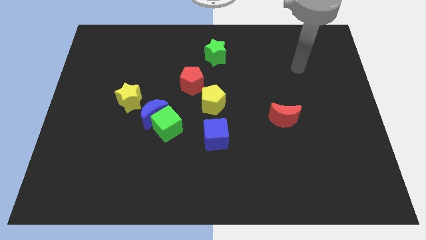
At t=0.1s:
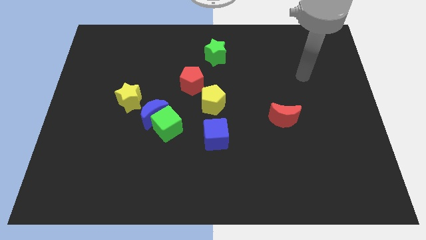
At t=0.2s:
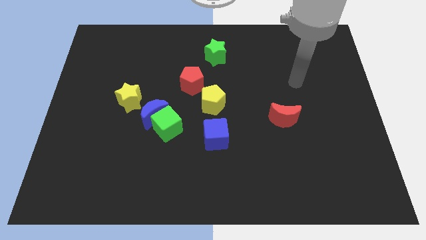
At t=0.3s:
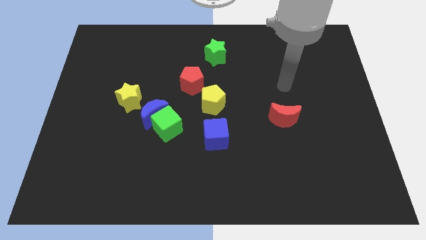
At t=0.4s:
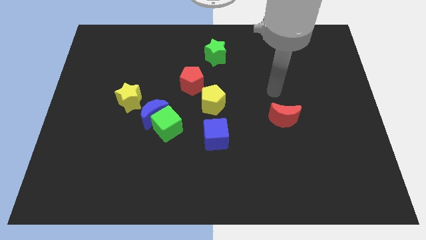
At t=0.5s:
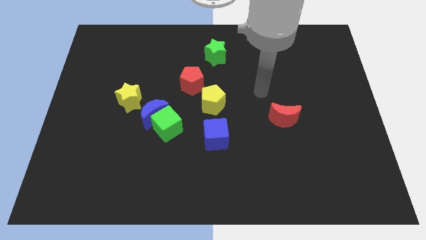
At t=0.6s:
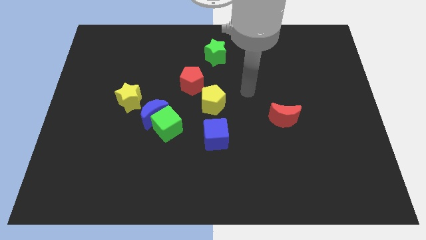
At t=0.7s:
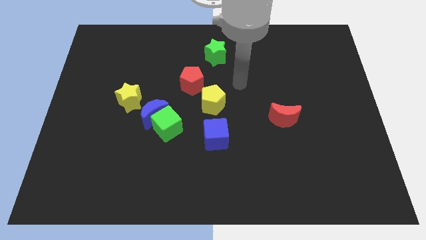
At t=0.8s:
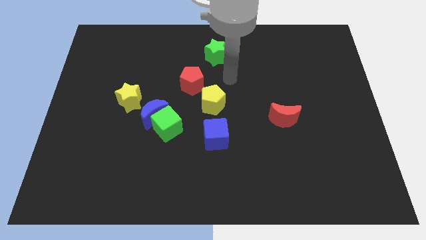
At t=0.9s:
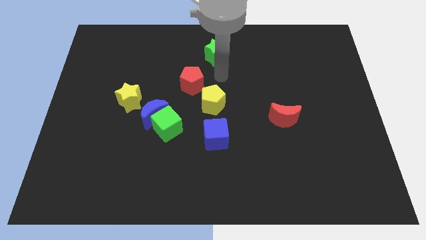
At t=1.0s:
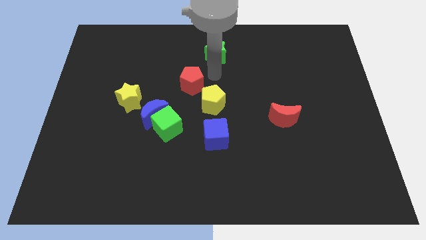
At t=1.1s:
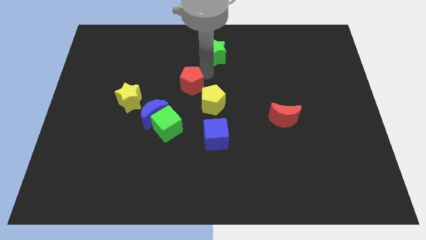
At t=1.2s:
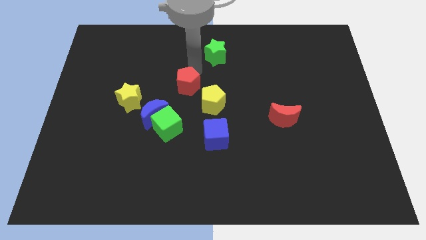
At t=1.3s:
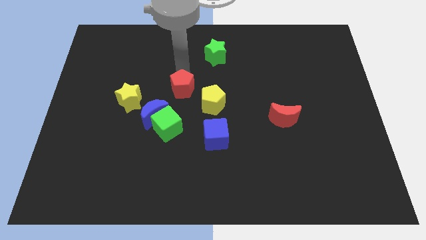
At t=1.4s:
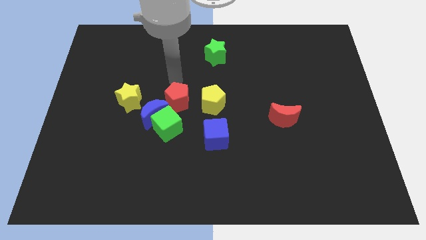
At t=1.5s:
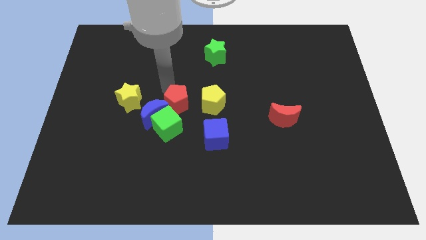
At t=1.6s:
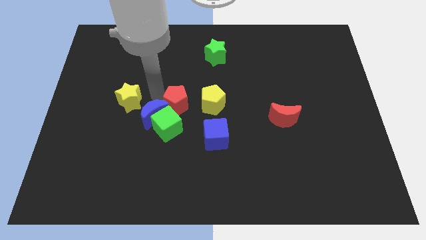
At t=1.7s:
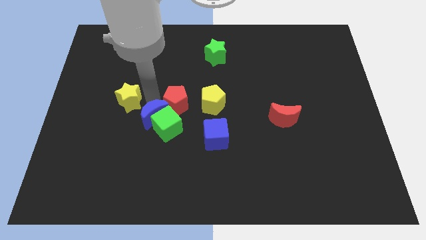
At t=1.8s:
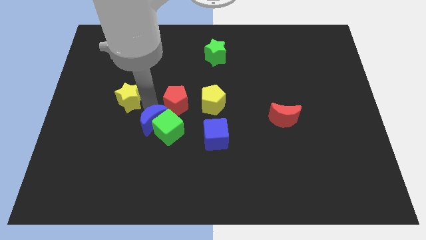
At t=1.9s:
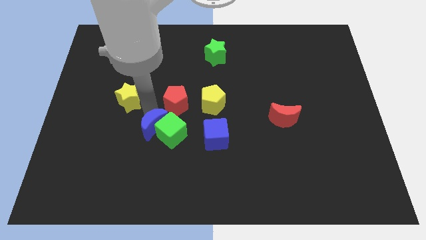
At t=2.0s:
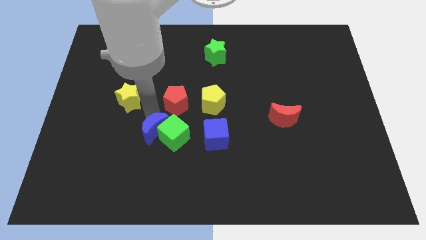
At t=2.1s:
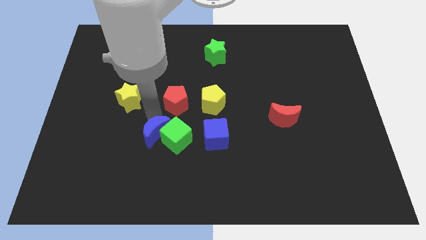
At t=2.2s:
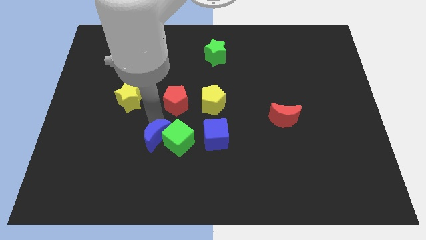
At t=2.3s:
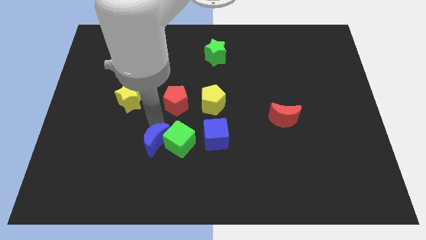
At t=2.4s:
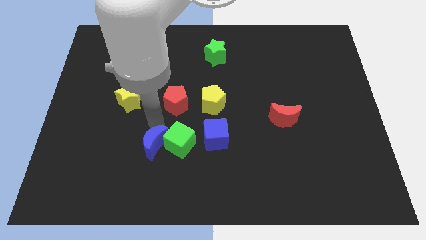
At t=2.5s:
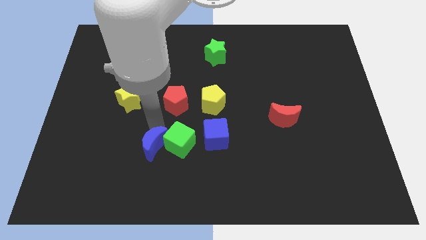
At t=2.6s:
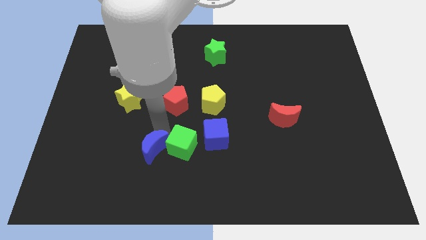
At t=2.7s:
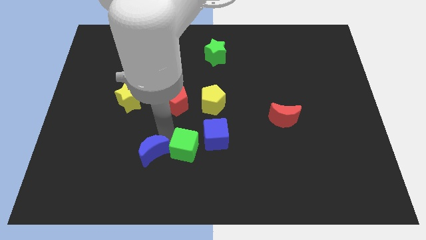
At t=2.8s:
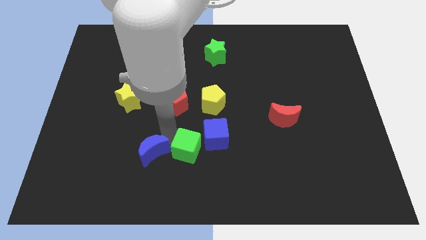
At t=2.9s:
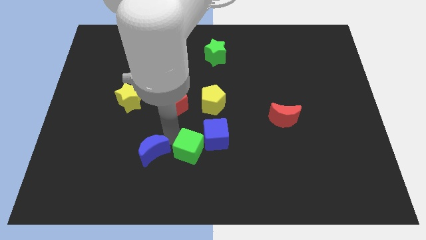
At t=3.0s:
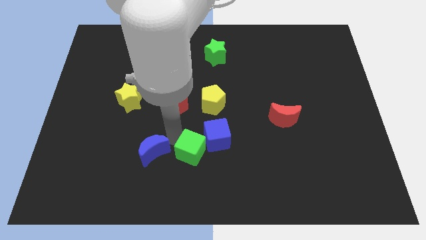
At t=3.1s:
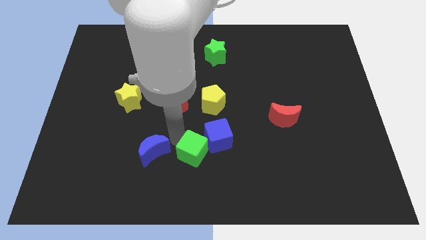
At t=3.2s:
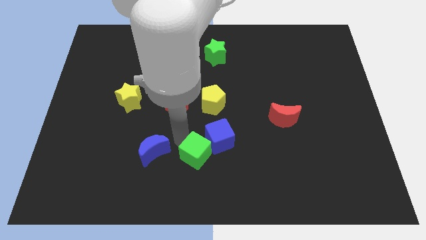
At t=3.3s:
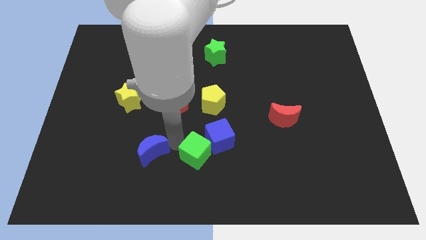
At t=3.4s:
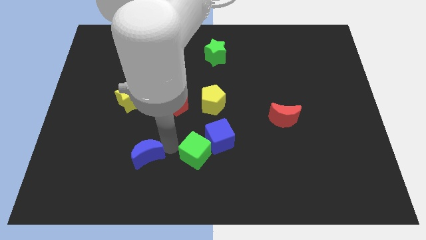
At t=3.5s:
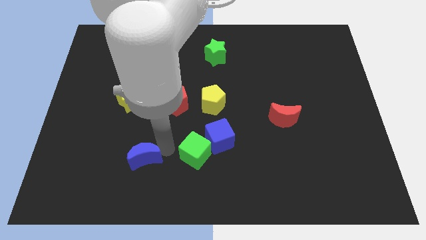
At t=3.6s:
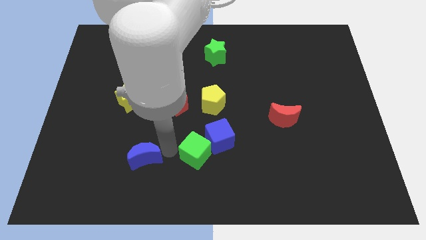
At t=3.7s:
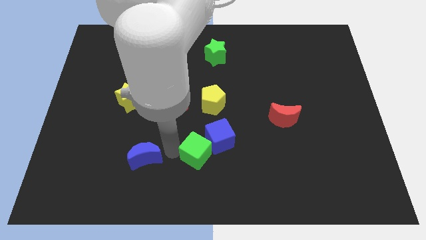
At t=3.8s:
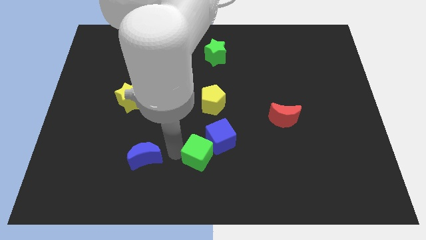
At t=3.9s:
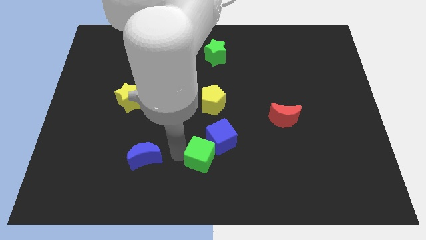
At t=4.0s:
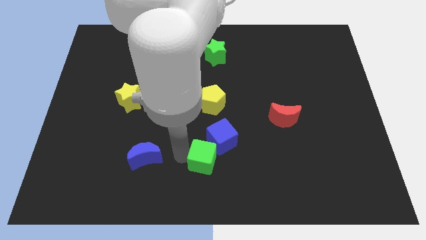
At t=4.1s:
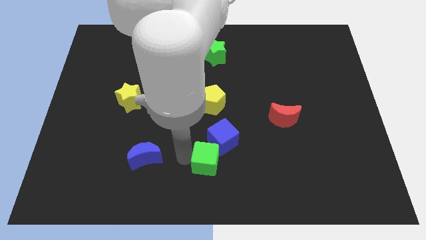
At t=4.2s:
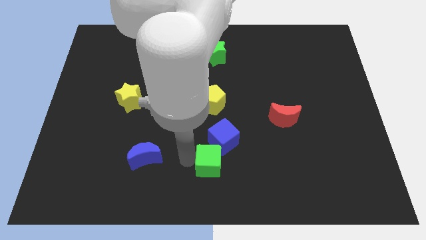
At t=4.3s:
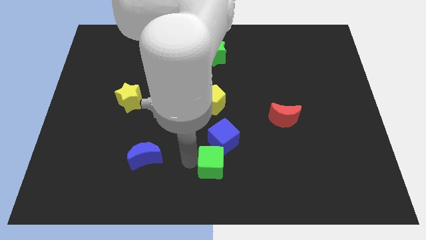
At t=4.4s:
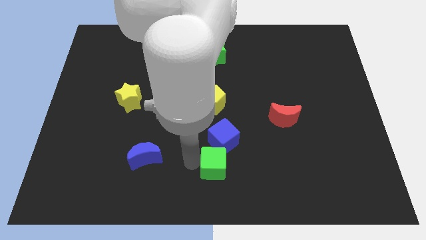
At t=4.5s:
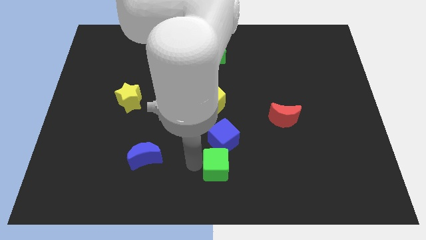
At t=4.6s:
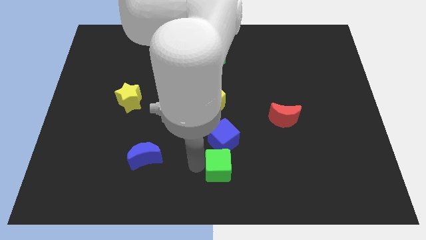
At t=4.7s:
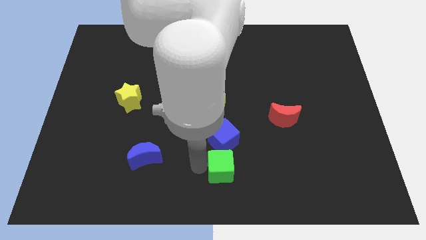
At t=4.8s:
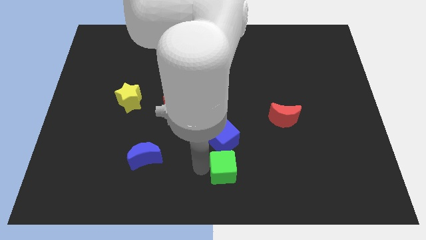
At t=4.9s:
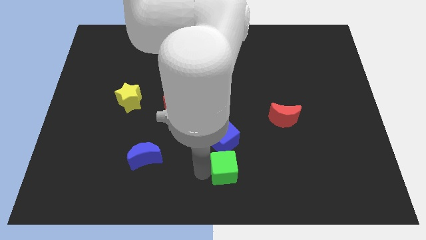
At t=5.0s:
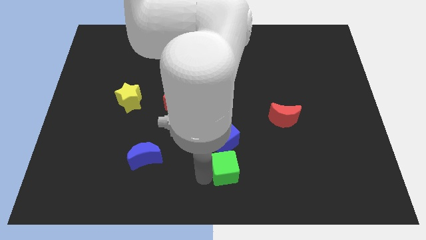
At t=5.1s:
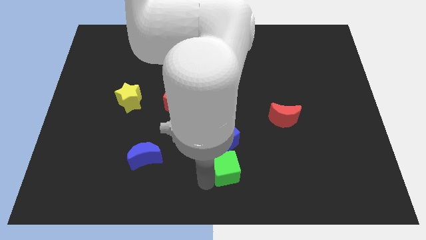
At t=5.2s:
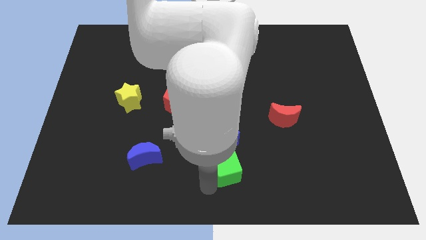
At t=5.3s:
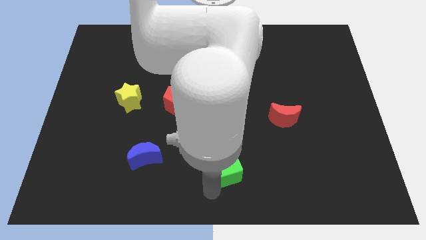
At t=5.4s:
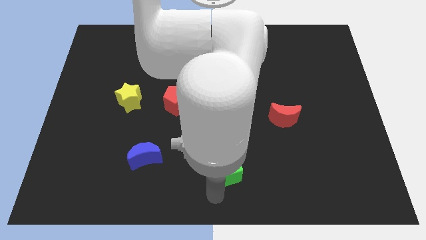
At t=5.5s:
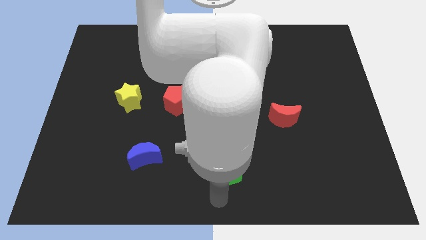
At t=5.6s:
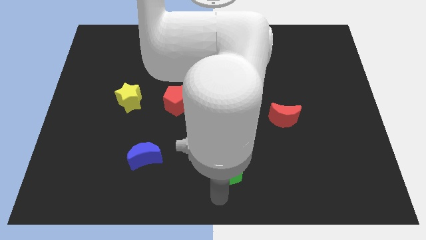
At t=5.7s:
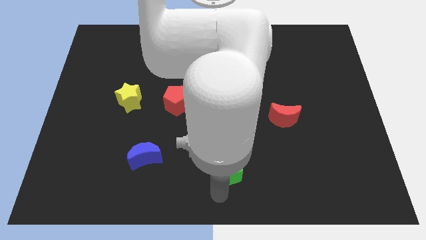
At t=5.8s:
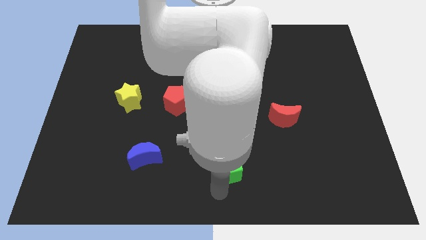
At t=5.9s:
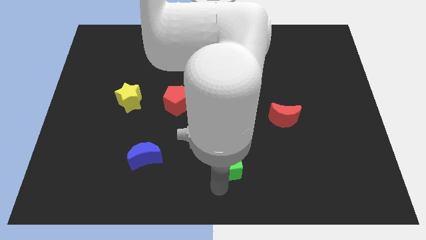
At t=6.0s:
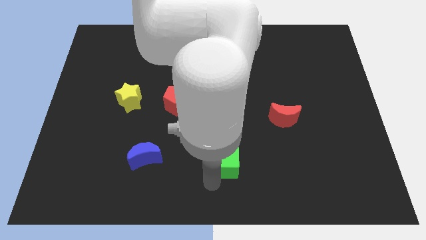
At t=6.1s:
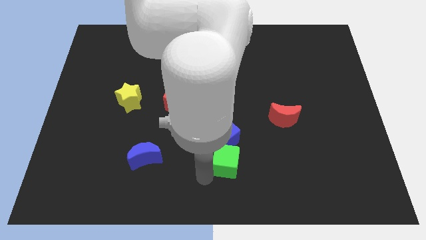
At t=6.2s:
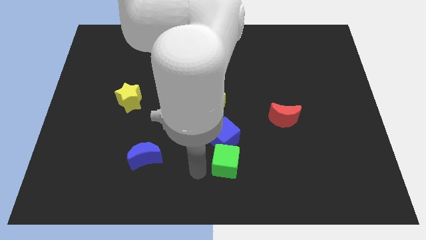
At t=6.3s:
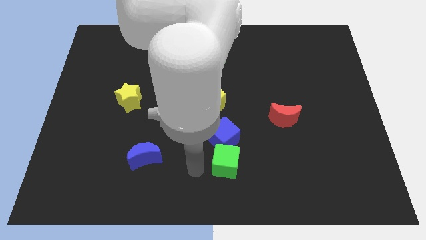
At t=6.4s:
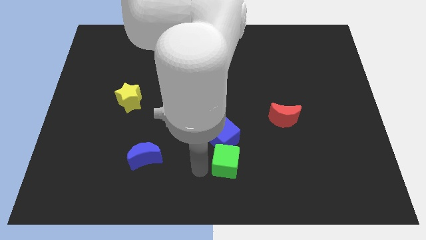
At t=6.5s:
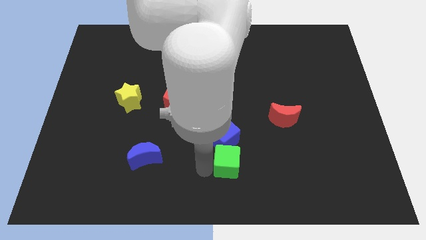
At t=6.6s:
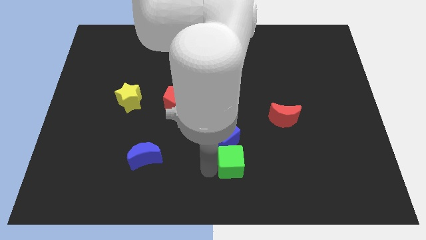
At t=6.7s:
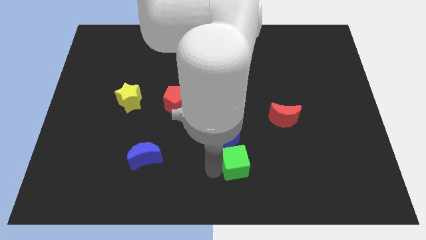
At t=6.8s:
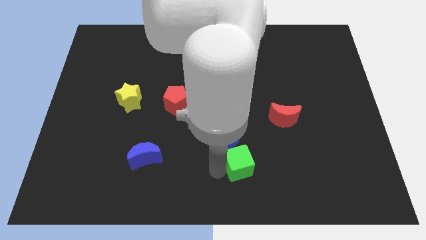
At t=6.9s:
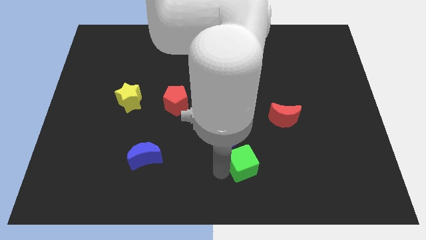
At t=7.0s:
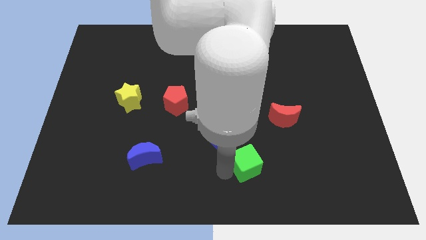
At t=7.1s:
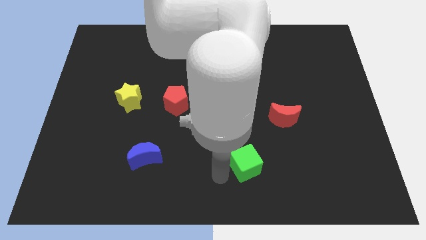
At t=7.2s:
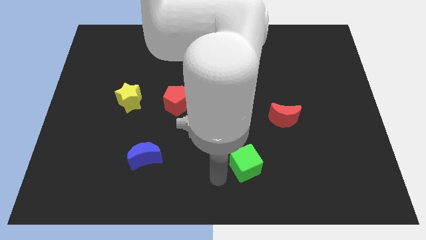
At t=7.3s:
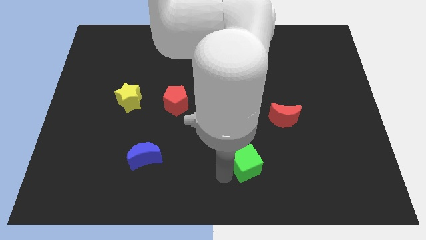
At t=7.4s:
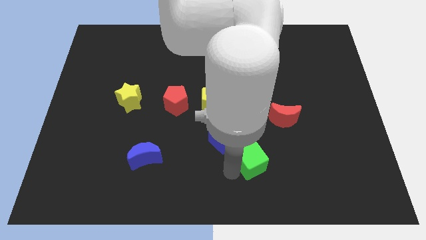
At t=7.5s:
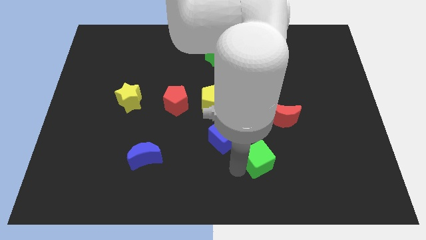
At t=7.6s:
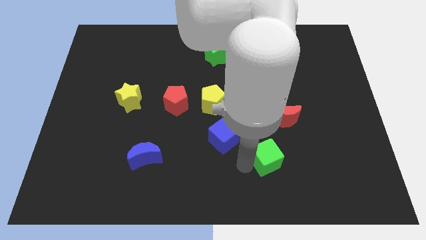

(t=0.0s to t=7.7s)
put the green cube to the bottom side of the red moon

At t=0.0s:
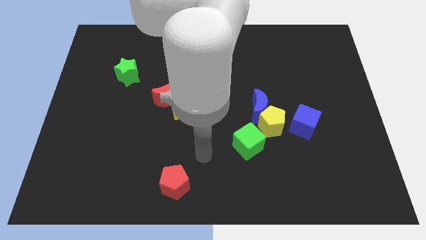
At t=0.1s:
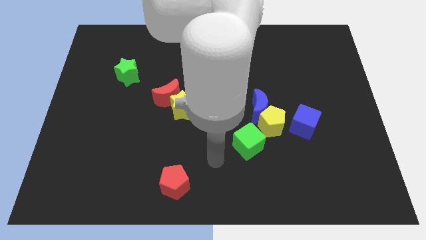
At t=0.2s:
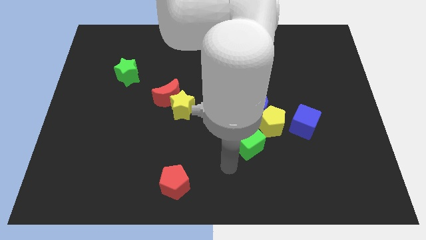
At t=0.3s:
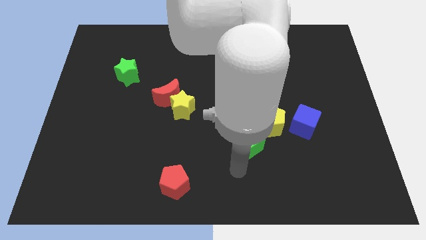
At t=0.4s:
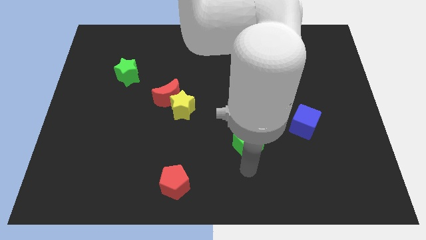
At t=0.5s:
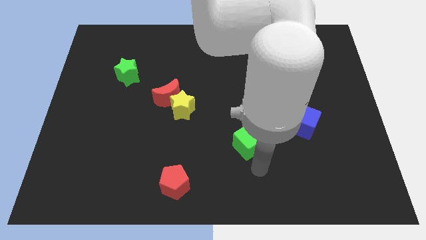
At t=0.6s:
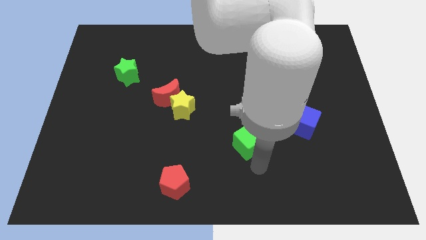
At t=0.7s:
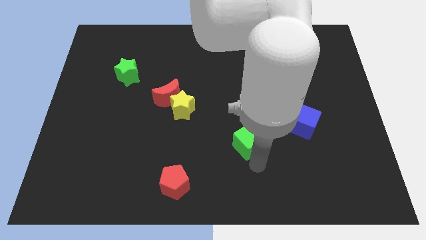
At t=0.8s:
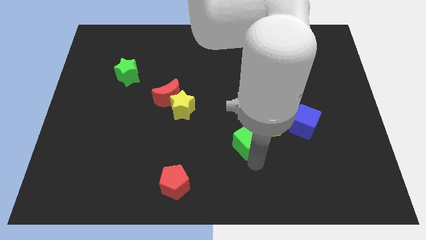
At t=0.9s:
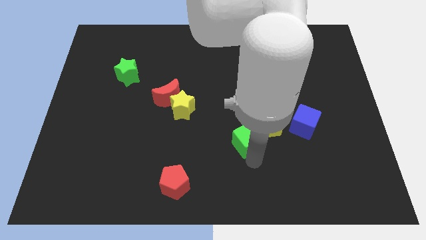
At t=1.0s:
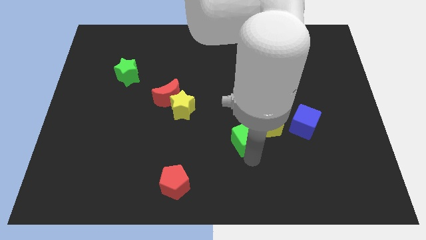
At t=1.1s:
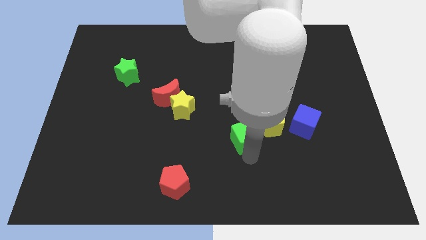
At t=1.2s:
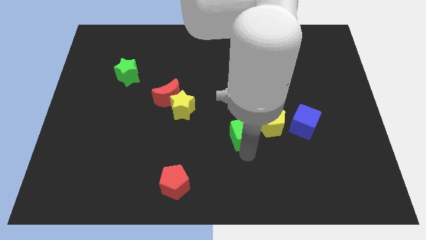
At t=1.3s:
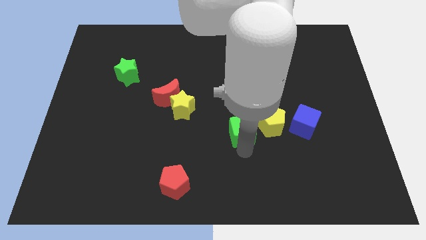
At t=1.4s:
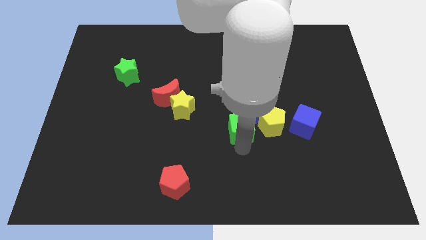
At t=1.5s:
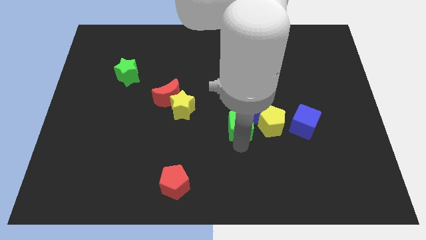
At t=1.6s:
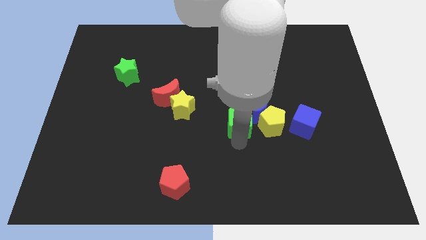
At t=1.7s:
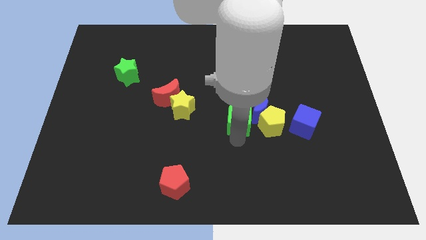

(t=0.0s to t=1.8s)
put the green cube to the top left side of the yellow pentagon
